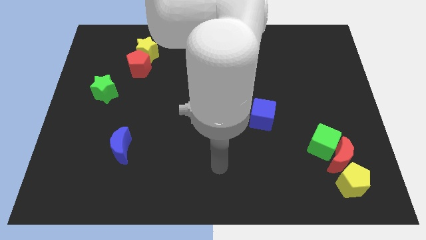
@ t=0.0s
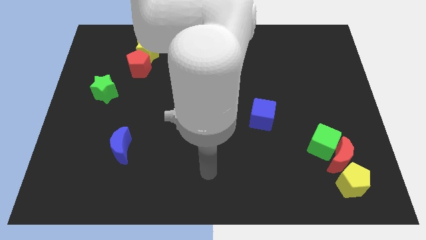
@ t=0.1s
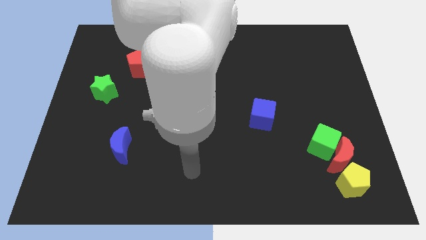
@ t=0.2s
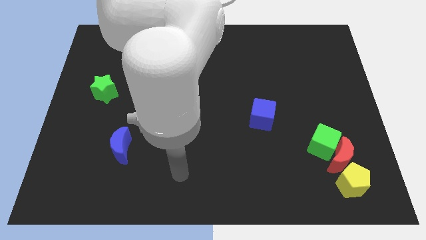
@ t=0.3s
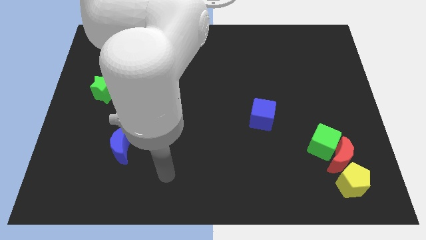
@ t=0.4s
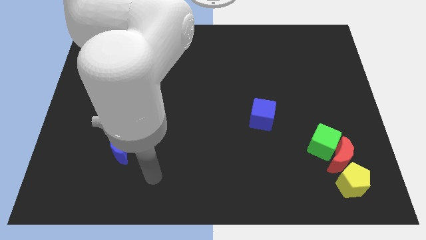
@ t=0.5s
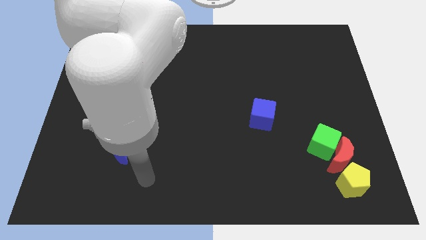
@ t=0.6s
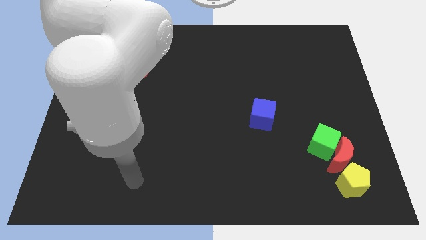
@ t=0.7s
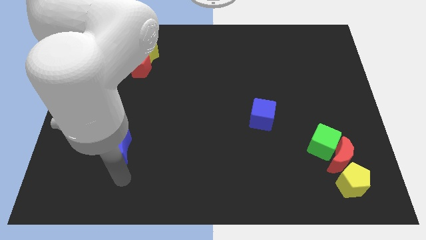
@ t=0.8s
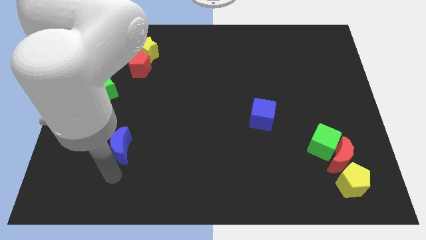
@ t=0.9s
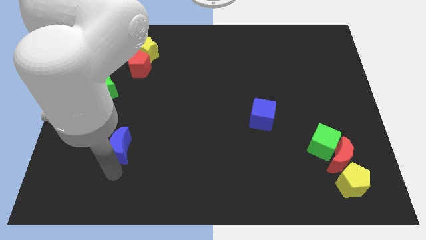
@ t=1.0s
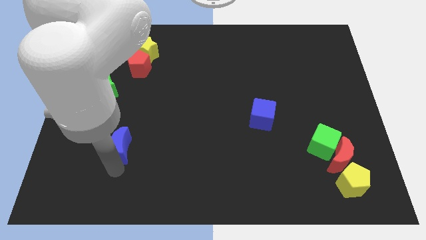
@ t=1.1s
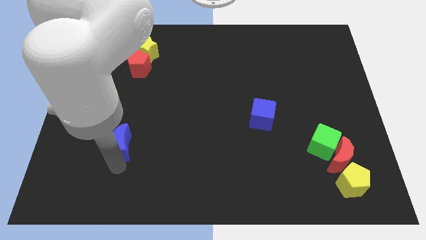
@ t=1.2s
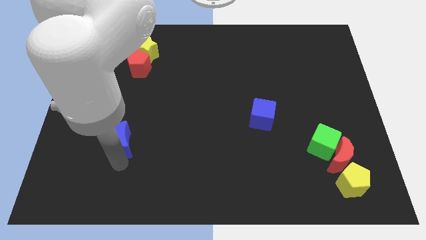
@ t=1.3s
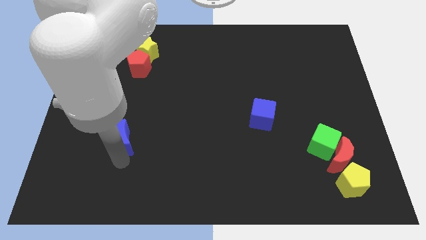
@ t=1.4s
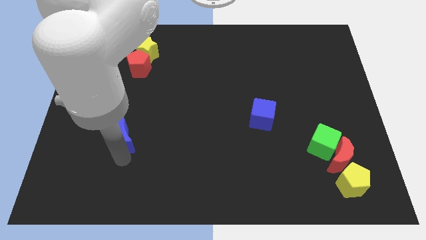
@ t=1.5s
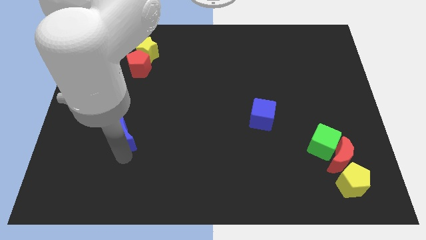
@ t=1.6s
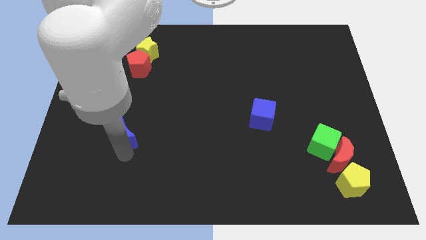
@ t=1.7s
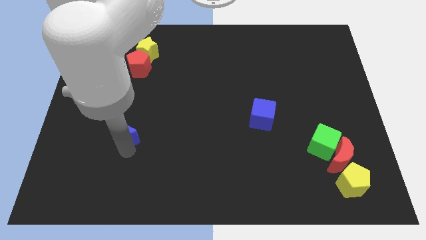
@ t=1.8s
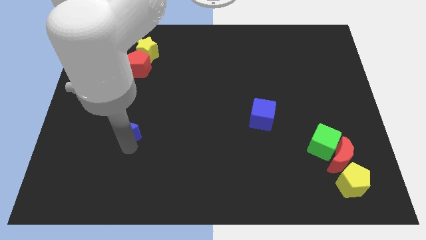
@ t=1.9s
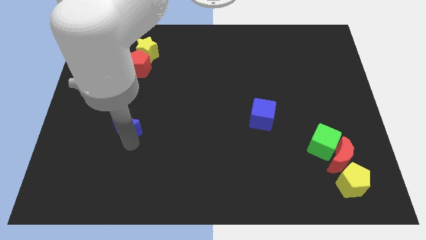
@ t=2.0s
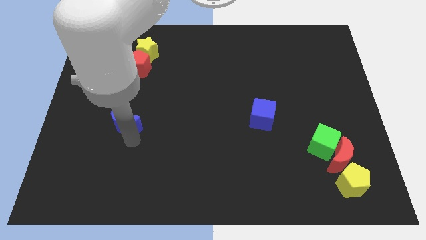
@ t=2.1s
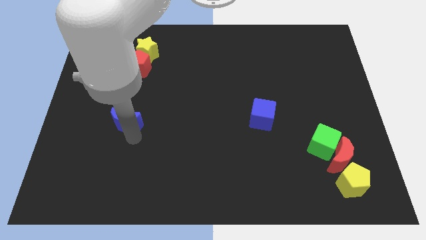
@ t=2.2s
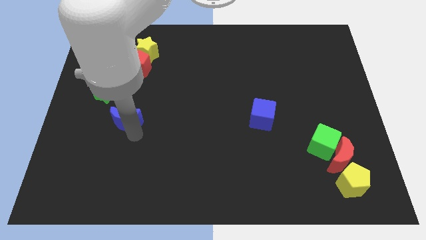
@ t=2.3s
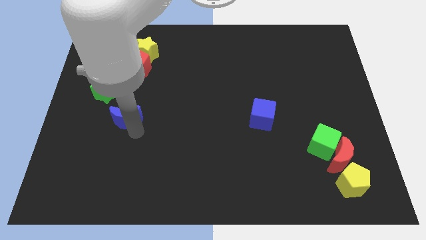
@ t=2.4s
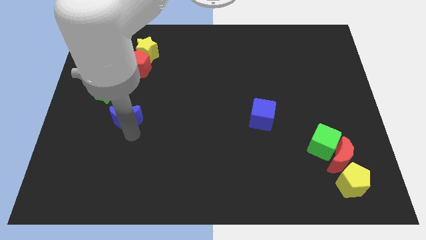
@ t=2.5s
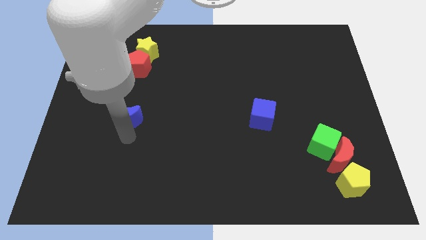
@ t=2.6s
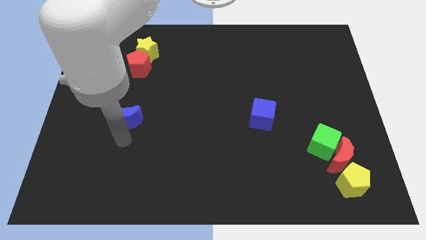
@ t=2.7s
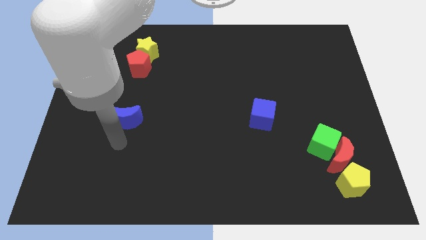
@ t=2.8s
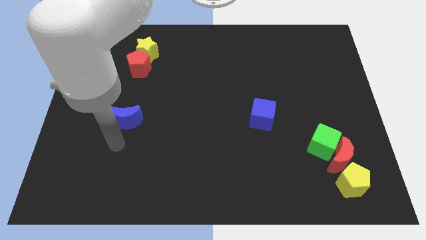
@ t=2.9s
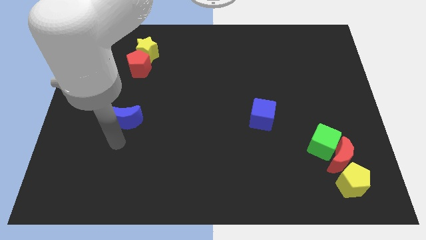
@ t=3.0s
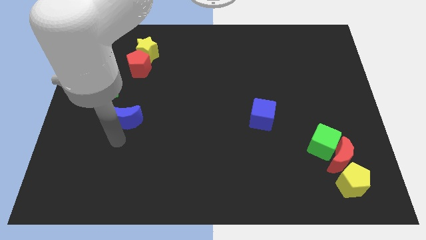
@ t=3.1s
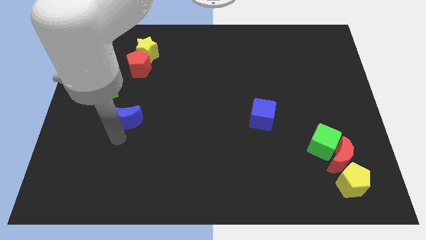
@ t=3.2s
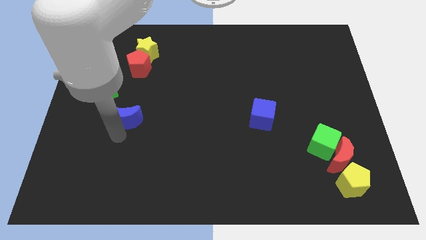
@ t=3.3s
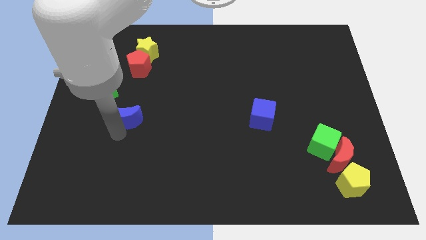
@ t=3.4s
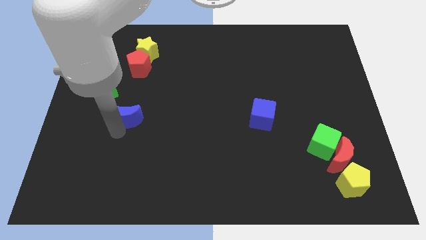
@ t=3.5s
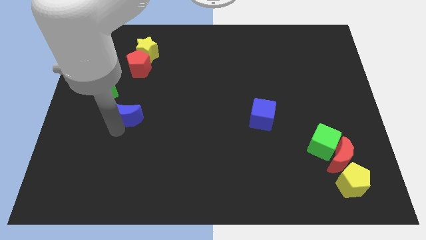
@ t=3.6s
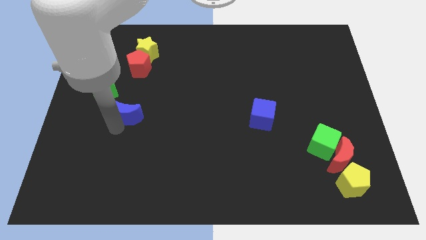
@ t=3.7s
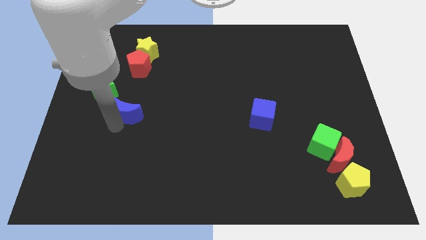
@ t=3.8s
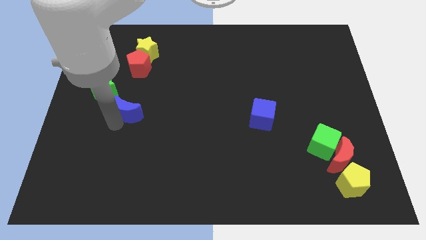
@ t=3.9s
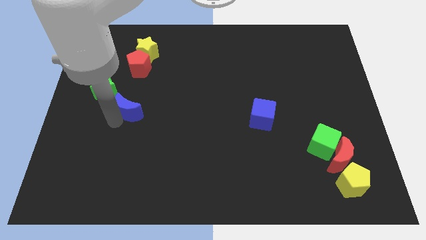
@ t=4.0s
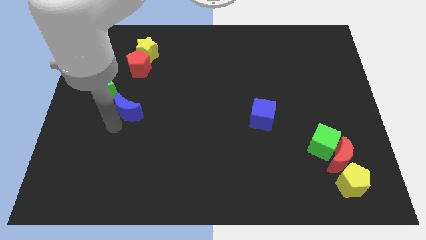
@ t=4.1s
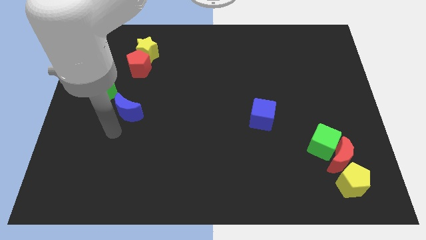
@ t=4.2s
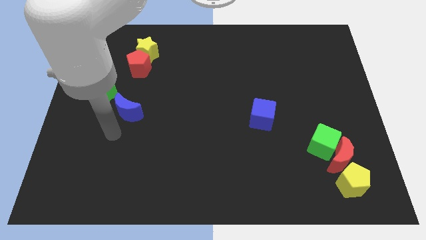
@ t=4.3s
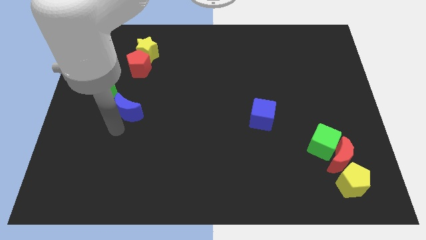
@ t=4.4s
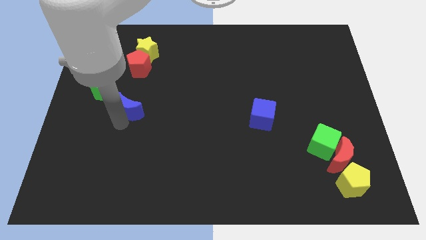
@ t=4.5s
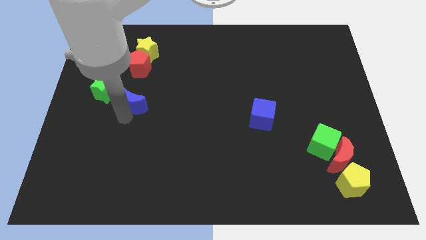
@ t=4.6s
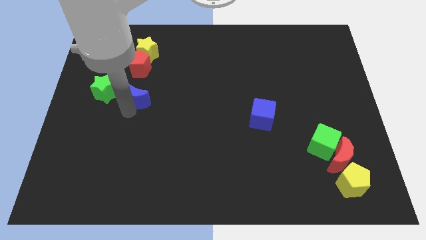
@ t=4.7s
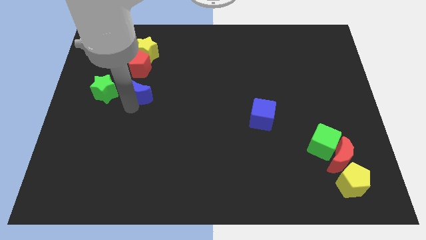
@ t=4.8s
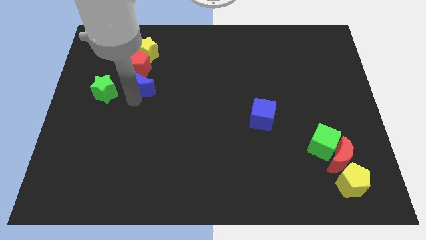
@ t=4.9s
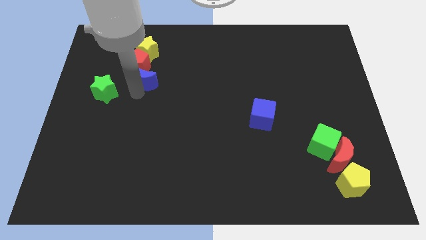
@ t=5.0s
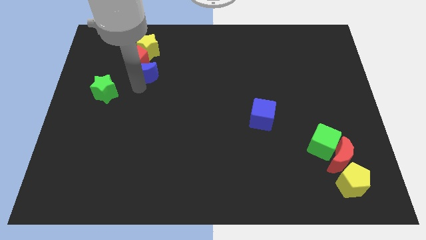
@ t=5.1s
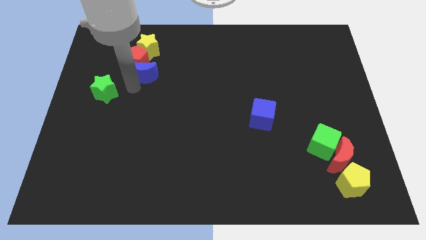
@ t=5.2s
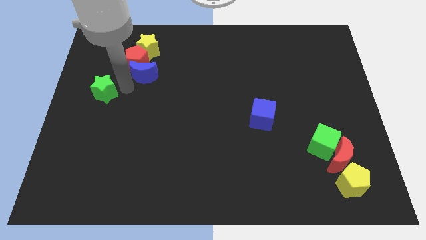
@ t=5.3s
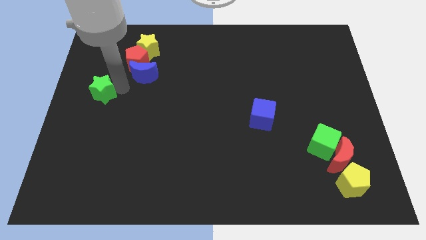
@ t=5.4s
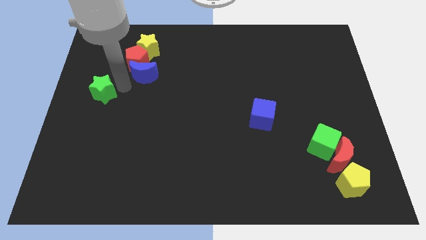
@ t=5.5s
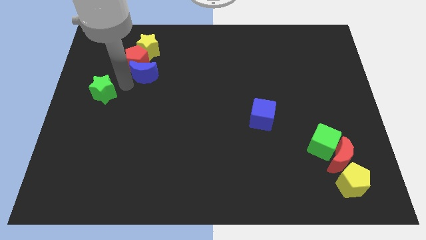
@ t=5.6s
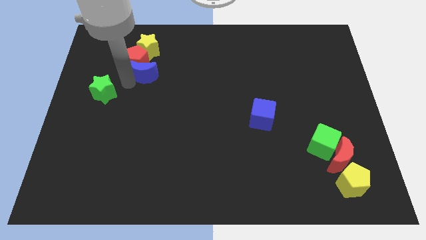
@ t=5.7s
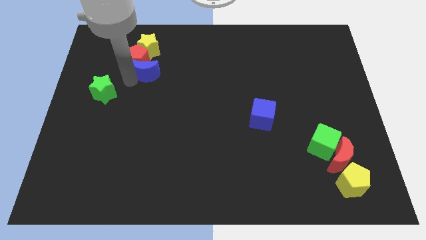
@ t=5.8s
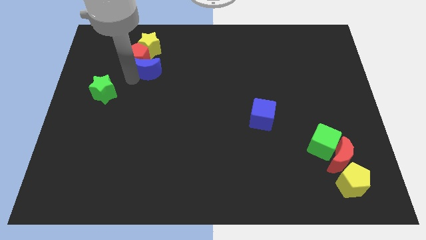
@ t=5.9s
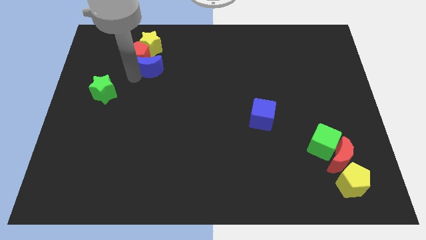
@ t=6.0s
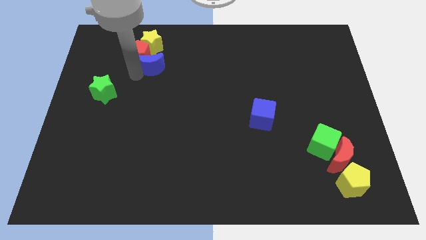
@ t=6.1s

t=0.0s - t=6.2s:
push the blue moon to the bottom right of the yellow star

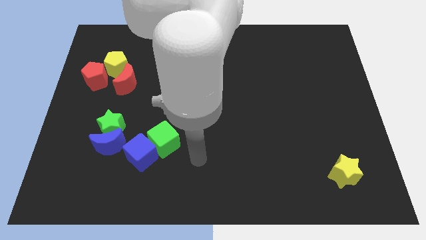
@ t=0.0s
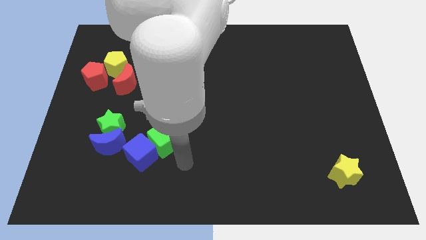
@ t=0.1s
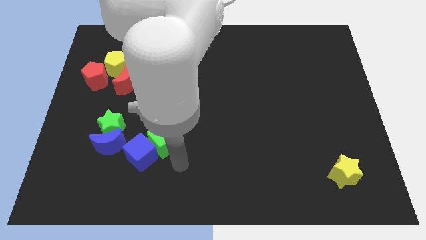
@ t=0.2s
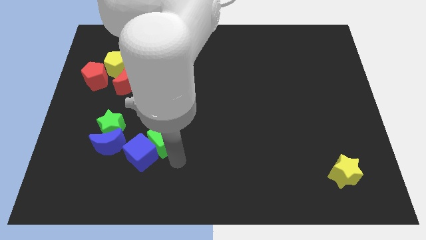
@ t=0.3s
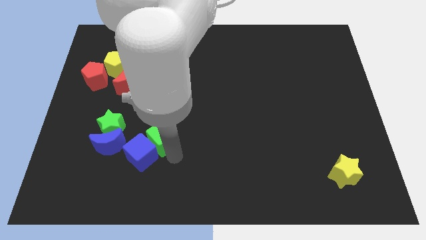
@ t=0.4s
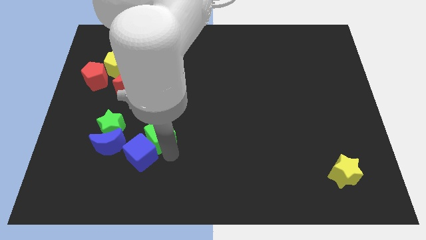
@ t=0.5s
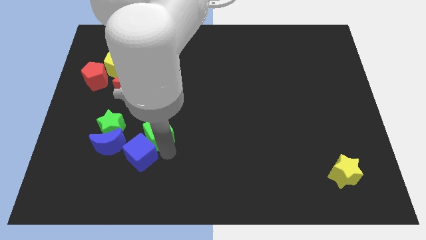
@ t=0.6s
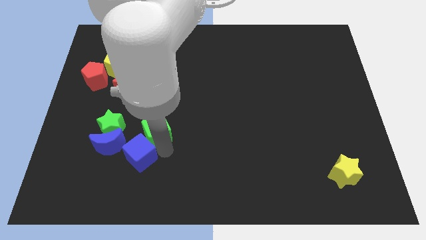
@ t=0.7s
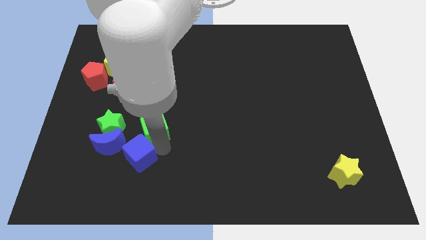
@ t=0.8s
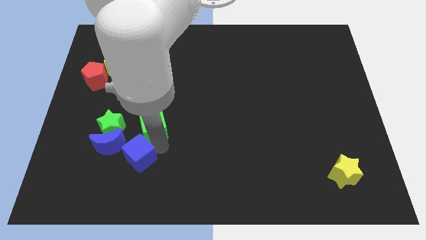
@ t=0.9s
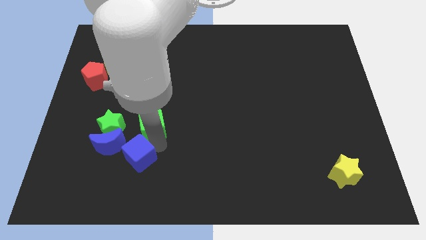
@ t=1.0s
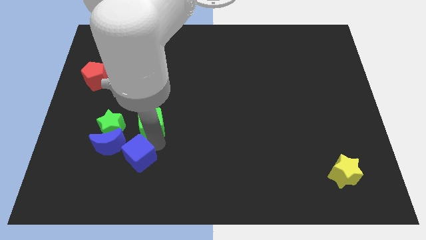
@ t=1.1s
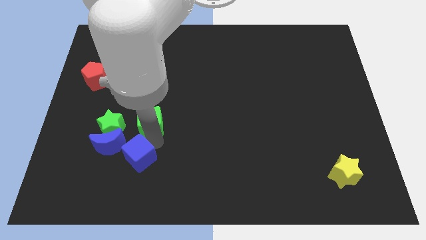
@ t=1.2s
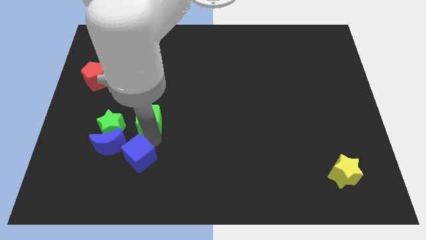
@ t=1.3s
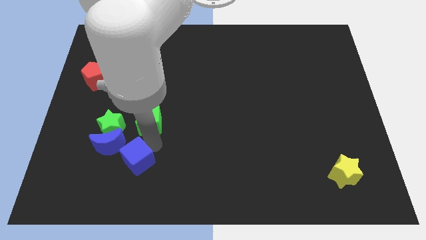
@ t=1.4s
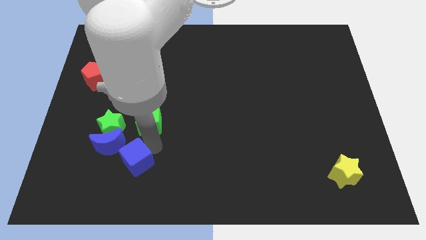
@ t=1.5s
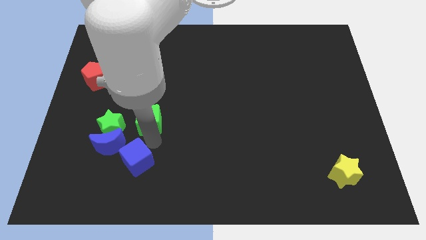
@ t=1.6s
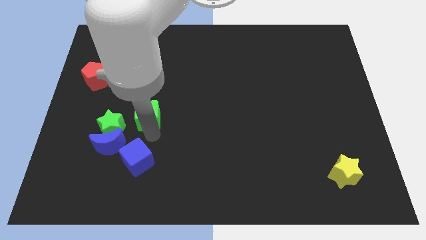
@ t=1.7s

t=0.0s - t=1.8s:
slide the green cube to the bottom right of the red moon
